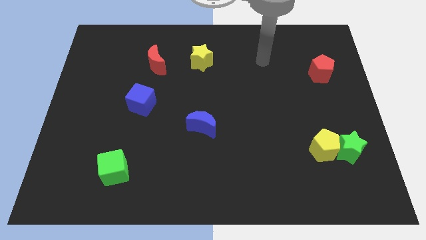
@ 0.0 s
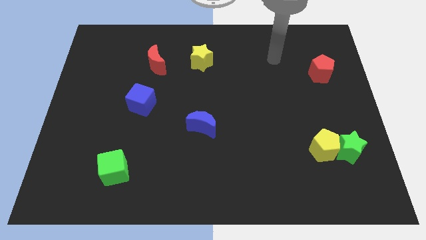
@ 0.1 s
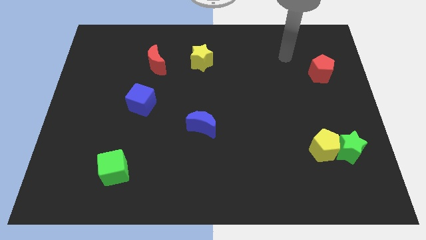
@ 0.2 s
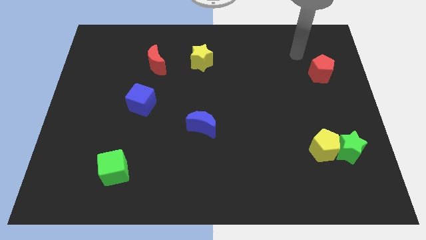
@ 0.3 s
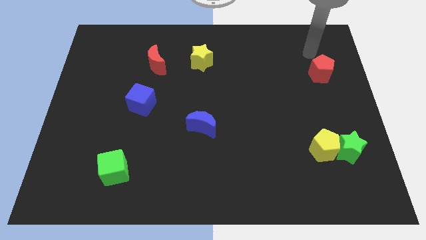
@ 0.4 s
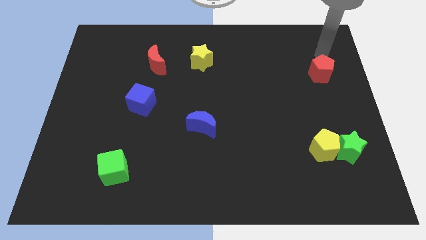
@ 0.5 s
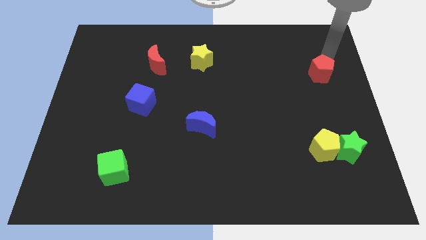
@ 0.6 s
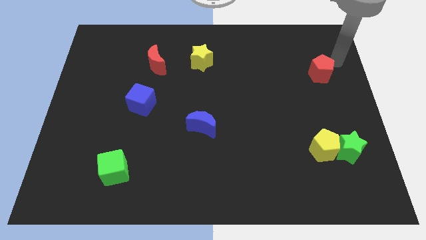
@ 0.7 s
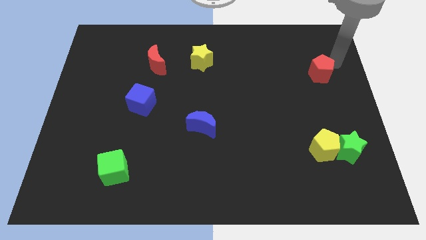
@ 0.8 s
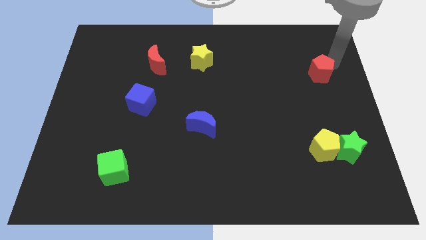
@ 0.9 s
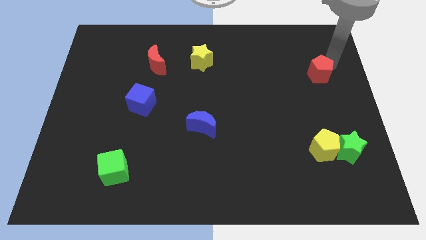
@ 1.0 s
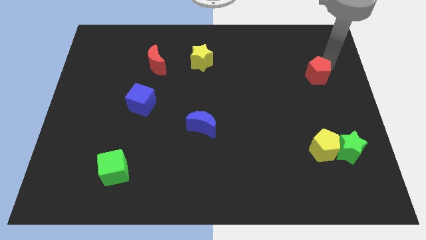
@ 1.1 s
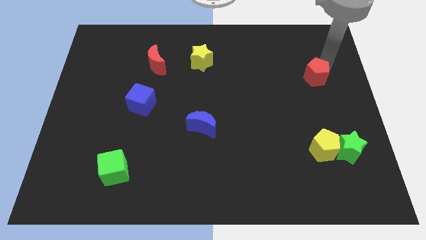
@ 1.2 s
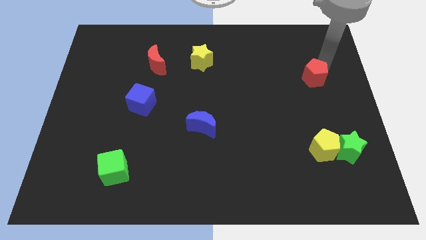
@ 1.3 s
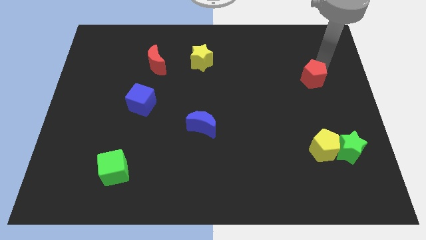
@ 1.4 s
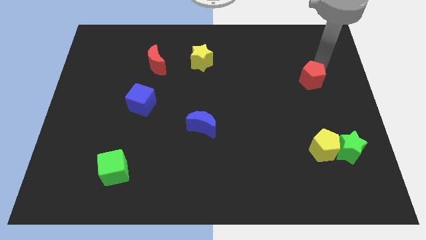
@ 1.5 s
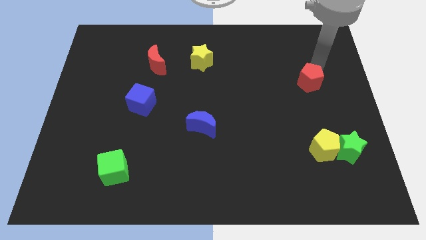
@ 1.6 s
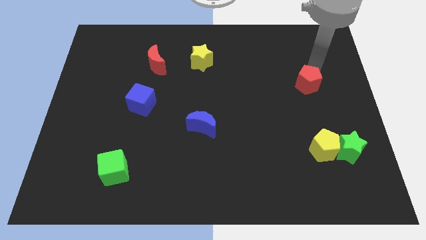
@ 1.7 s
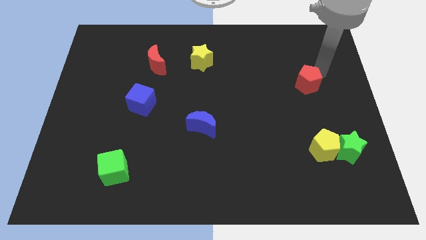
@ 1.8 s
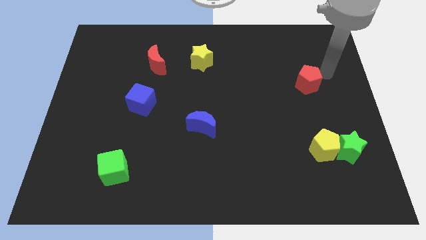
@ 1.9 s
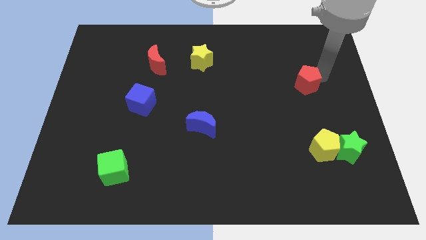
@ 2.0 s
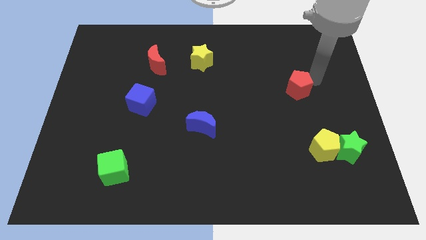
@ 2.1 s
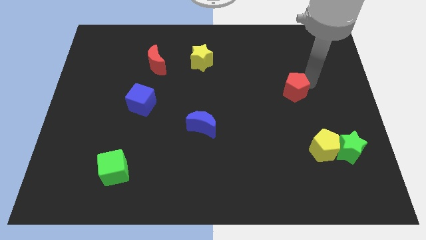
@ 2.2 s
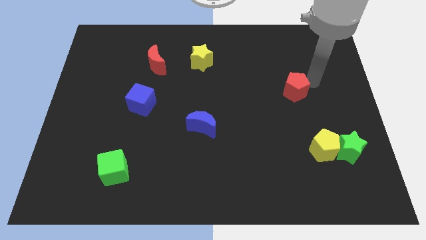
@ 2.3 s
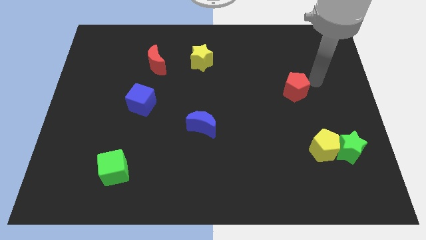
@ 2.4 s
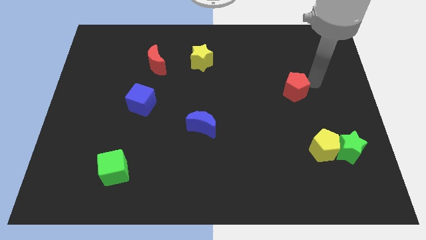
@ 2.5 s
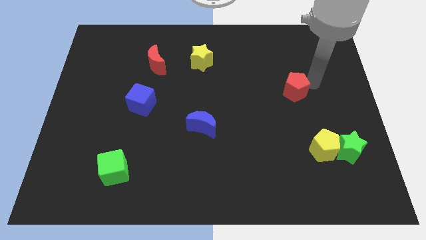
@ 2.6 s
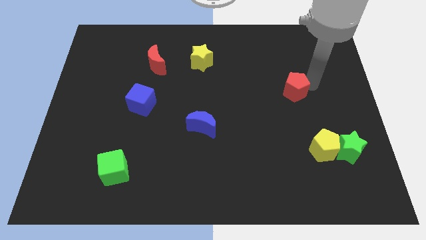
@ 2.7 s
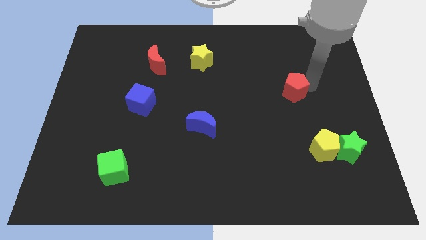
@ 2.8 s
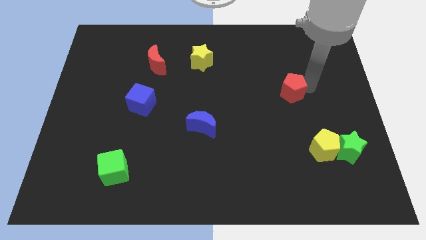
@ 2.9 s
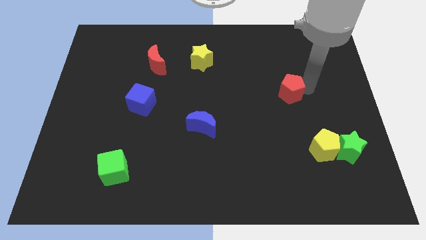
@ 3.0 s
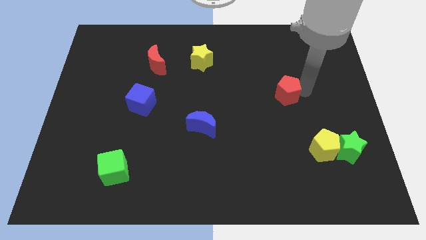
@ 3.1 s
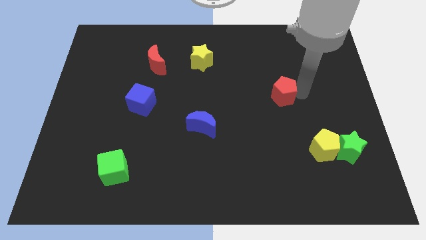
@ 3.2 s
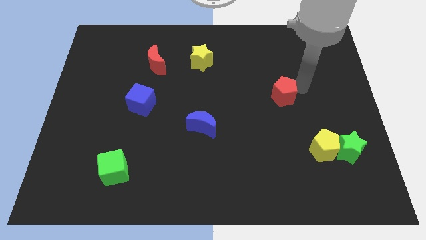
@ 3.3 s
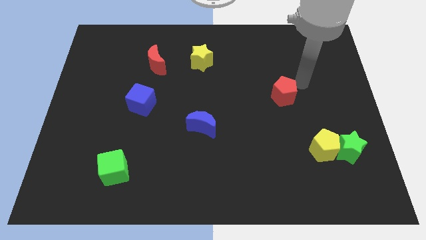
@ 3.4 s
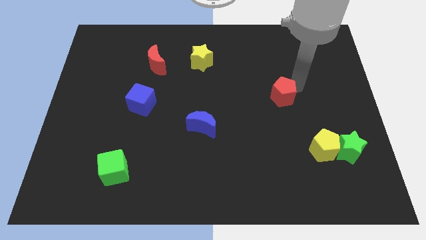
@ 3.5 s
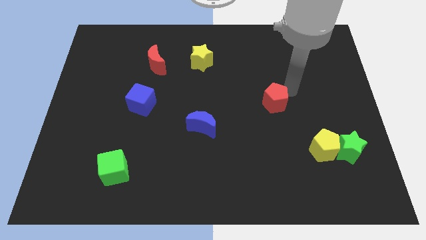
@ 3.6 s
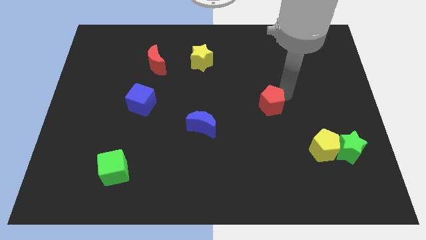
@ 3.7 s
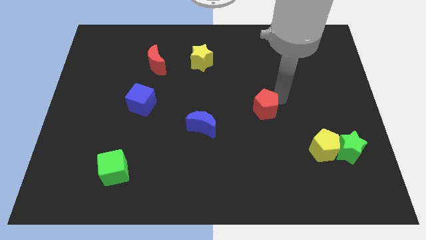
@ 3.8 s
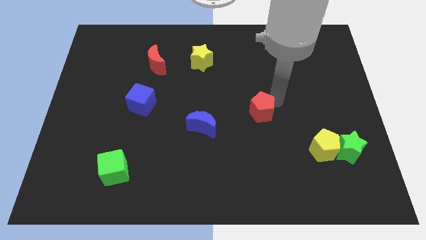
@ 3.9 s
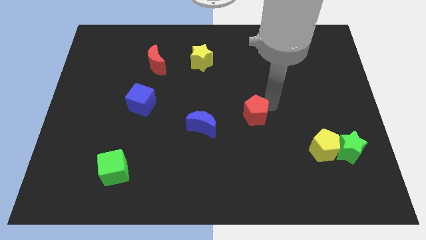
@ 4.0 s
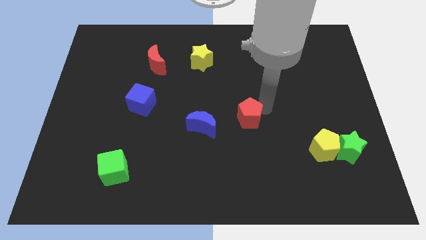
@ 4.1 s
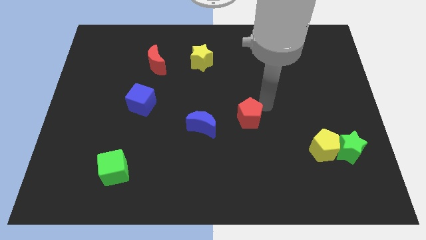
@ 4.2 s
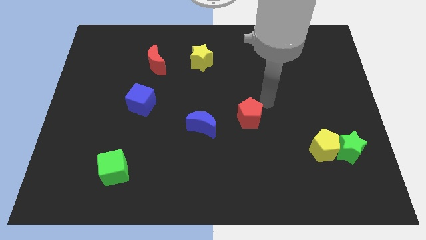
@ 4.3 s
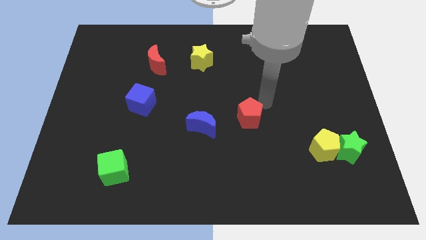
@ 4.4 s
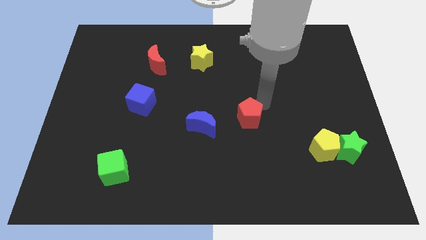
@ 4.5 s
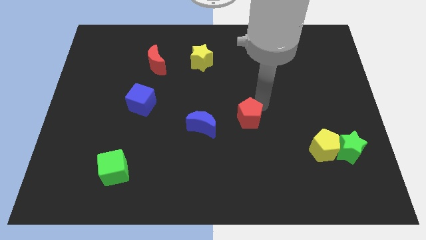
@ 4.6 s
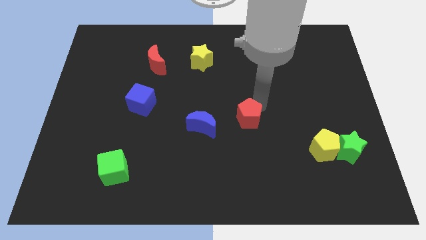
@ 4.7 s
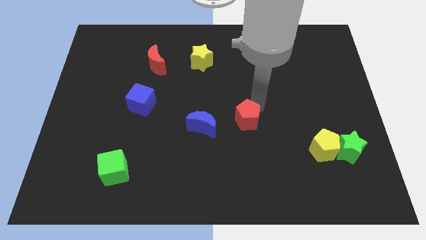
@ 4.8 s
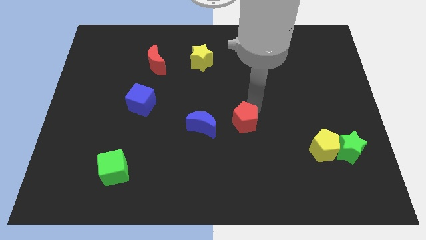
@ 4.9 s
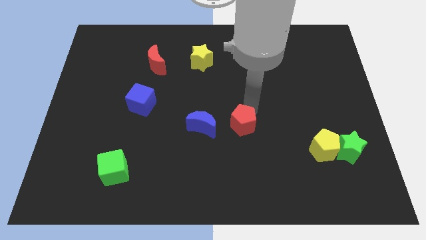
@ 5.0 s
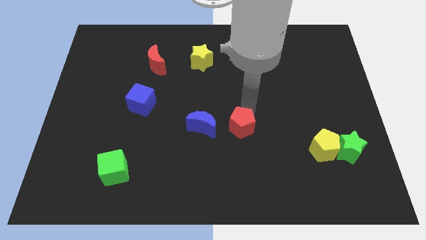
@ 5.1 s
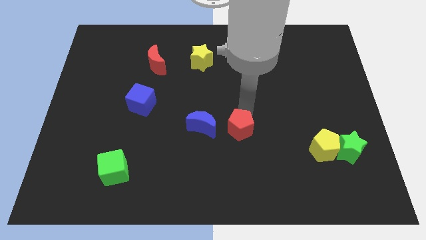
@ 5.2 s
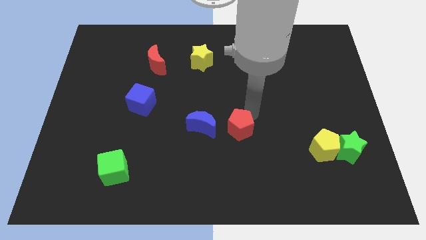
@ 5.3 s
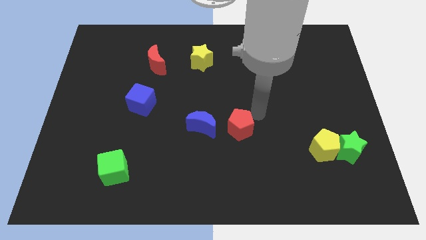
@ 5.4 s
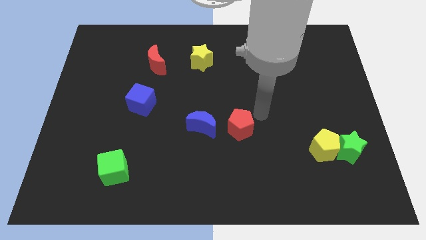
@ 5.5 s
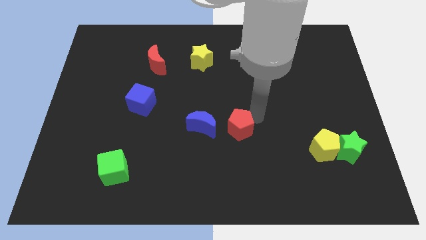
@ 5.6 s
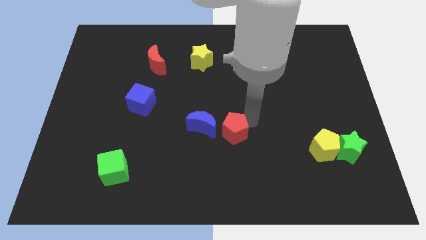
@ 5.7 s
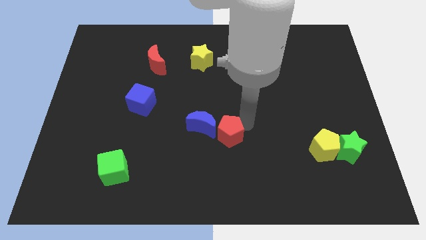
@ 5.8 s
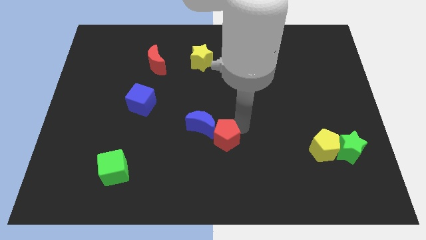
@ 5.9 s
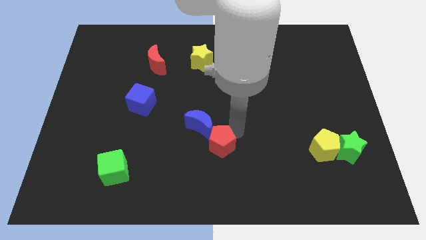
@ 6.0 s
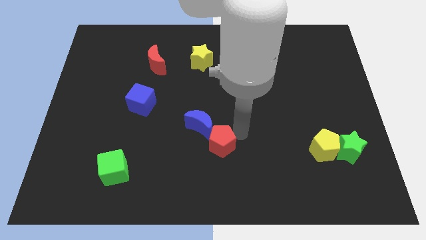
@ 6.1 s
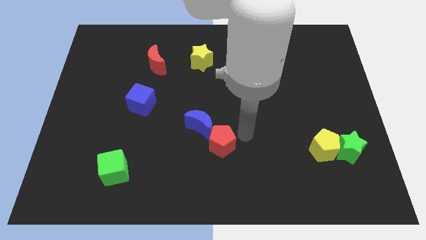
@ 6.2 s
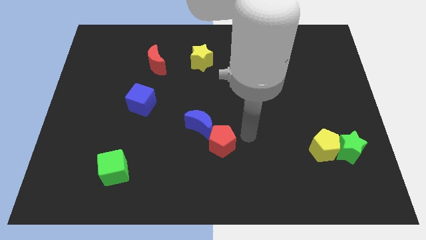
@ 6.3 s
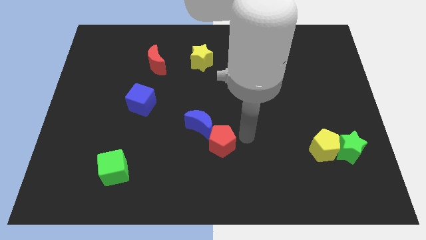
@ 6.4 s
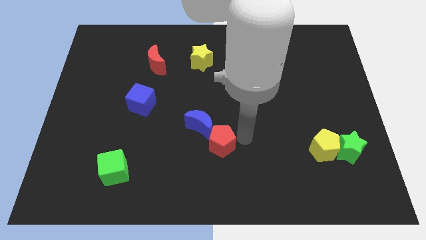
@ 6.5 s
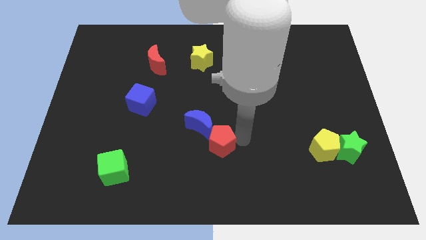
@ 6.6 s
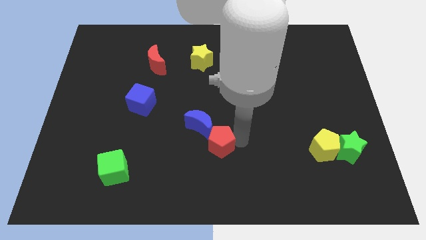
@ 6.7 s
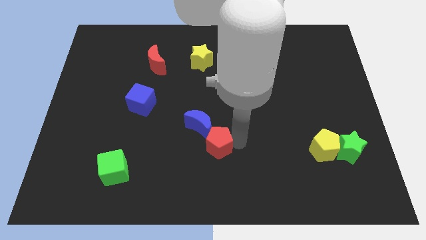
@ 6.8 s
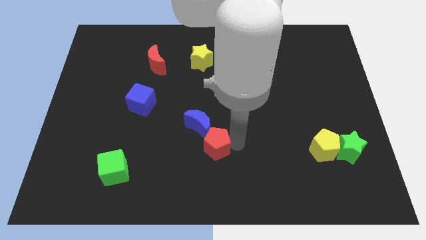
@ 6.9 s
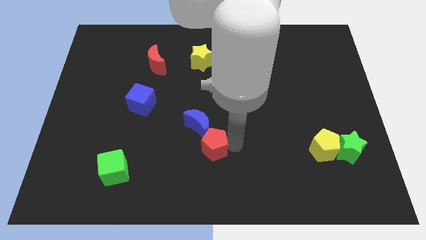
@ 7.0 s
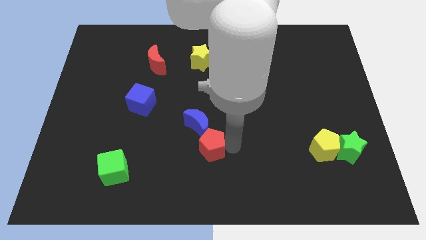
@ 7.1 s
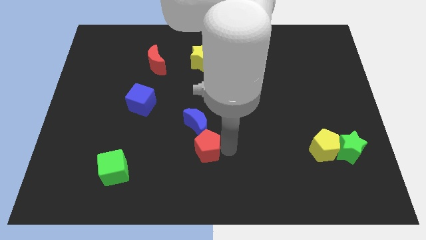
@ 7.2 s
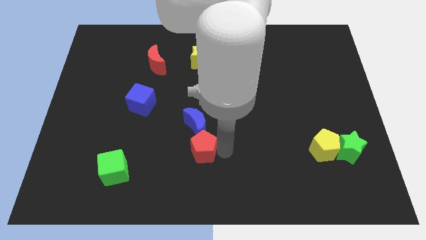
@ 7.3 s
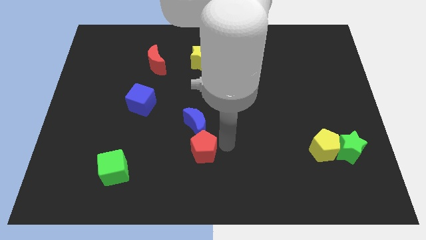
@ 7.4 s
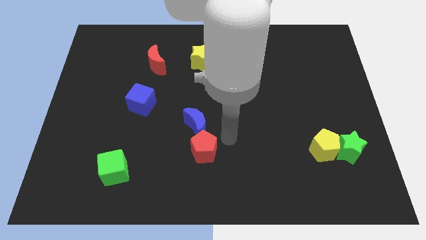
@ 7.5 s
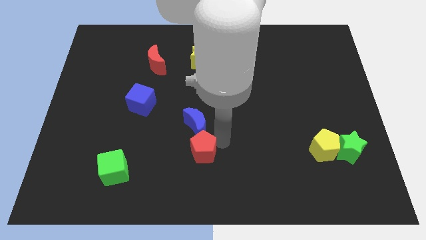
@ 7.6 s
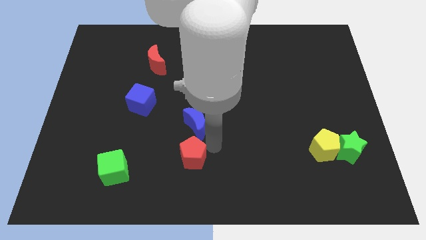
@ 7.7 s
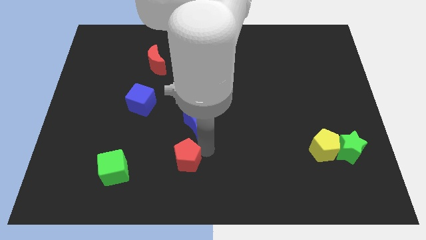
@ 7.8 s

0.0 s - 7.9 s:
move the red pentagon to the right side of the green cube
